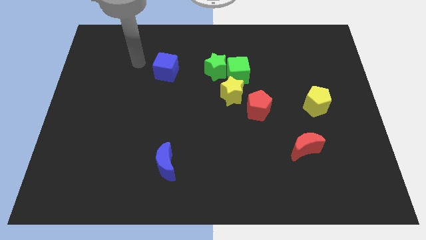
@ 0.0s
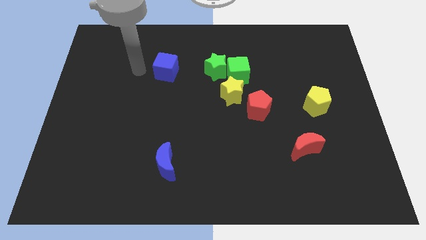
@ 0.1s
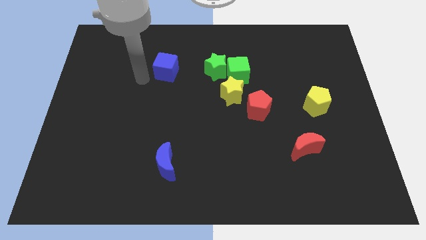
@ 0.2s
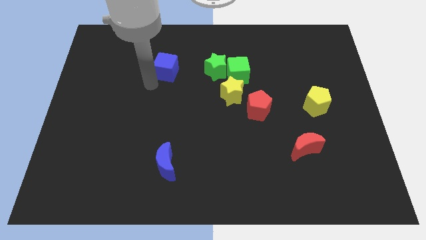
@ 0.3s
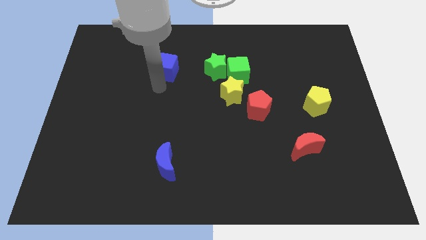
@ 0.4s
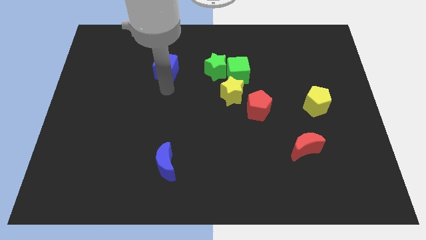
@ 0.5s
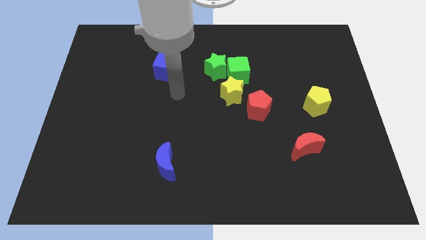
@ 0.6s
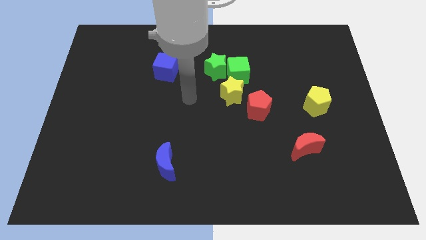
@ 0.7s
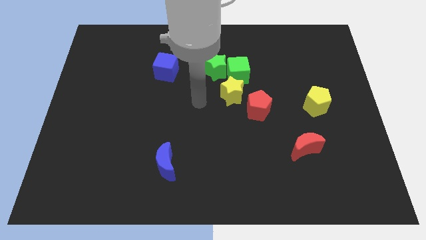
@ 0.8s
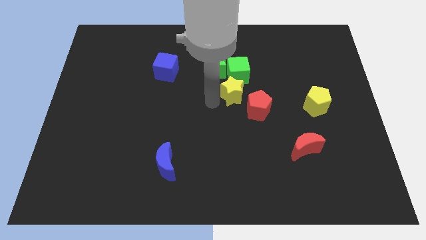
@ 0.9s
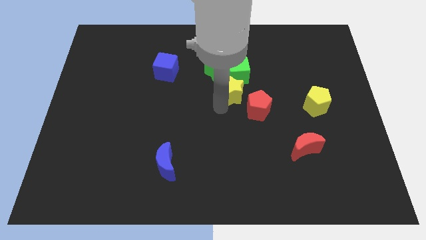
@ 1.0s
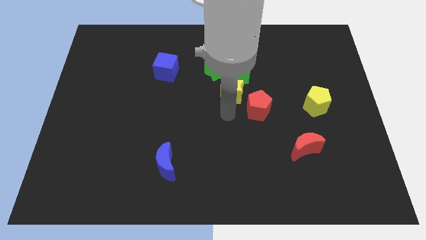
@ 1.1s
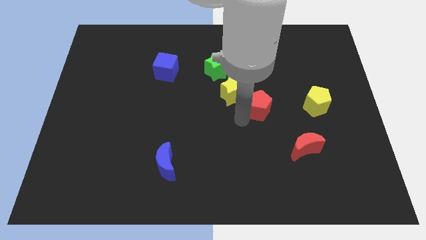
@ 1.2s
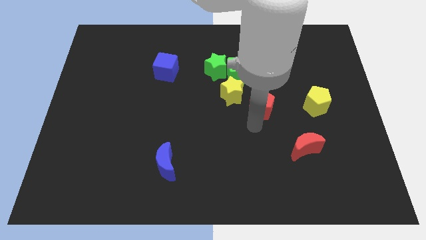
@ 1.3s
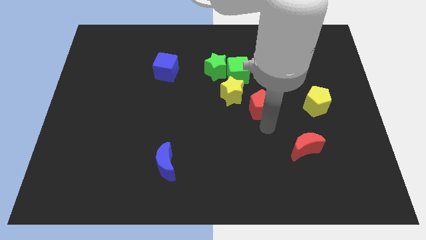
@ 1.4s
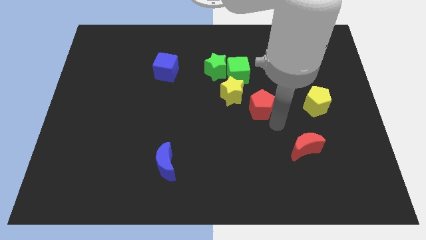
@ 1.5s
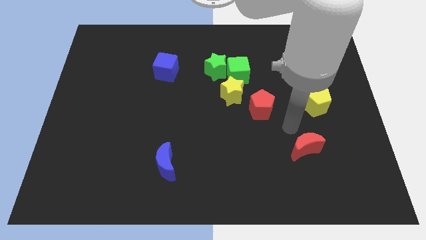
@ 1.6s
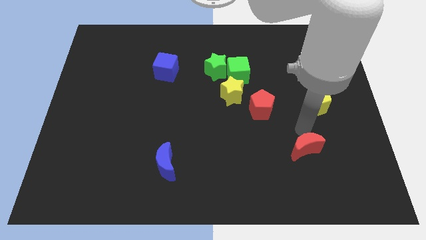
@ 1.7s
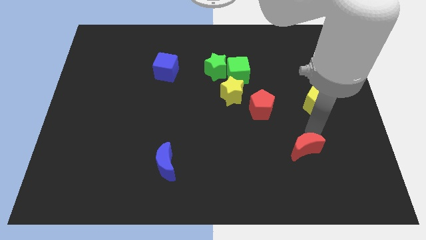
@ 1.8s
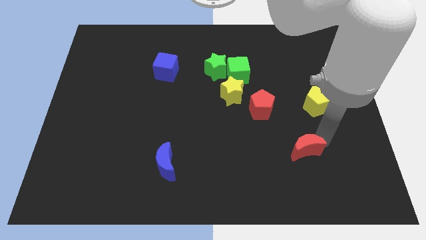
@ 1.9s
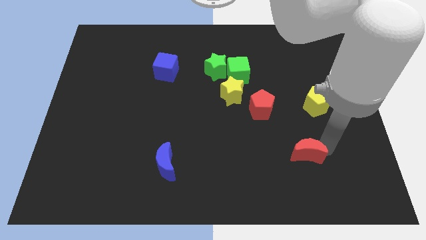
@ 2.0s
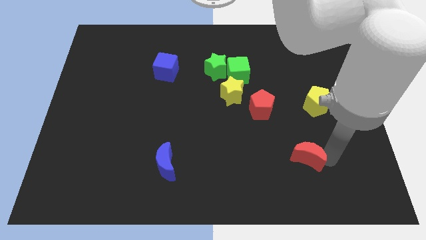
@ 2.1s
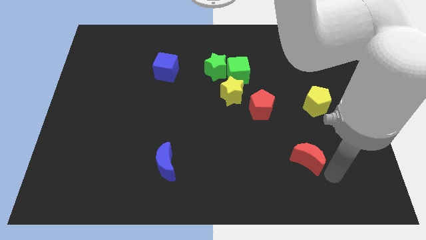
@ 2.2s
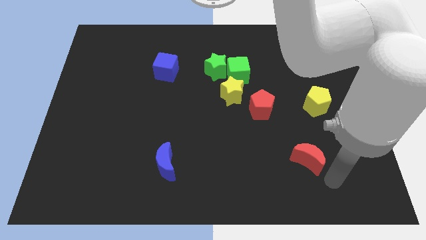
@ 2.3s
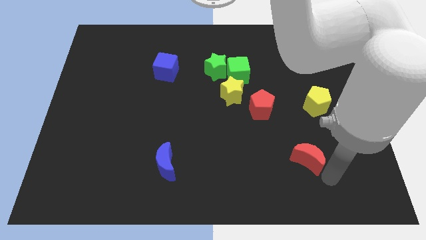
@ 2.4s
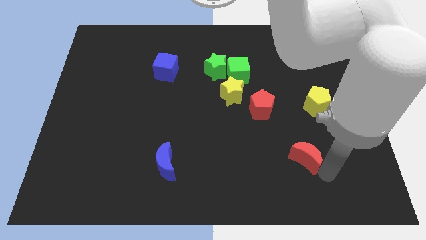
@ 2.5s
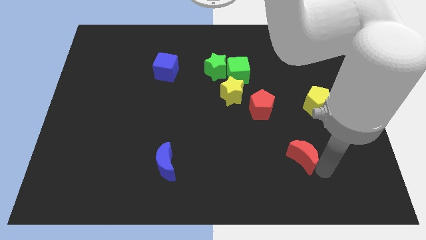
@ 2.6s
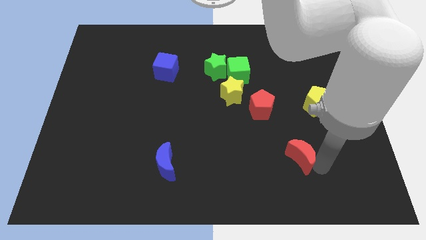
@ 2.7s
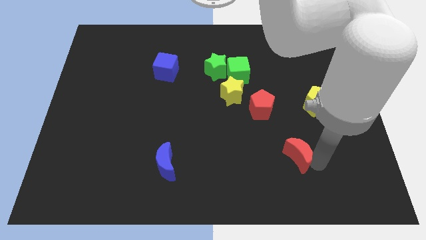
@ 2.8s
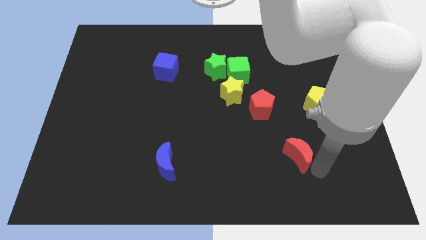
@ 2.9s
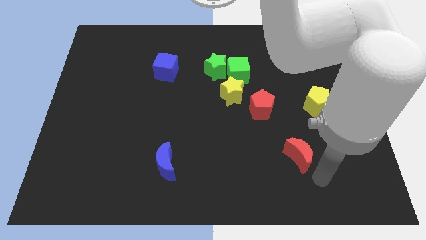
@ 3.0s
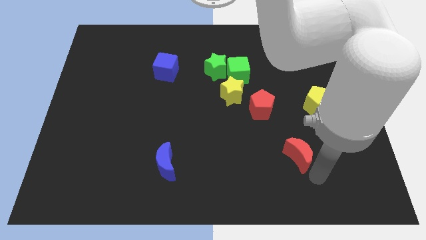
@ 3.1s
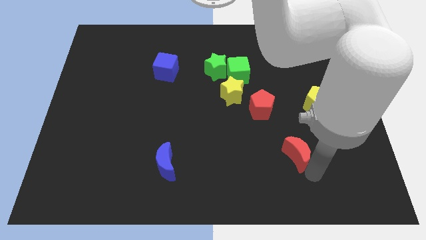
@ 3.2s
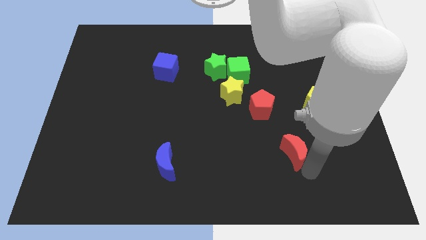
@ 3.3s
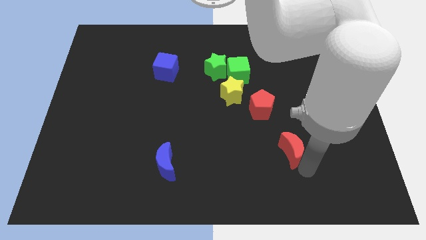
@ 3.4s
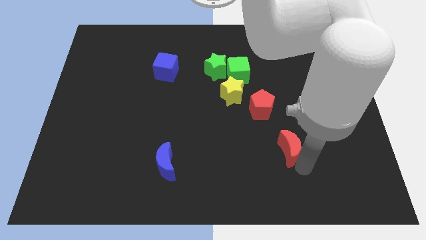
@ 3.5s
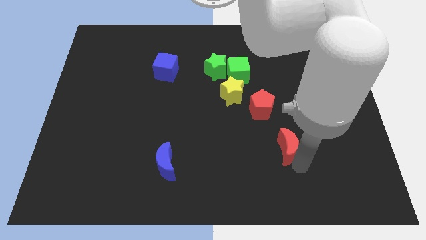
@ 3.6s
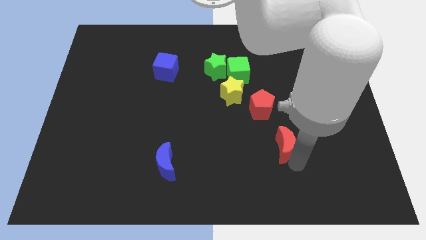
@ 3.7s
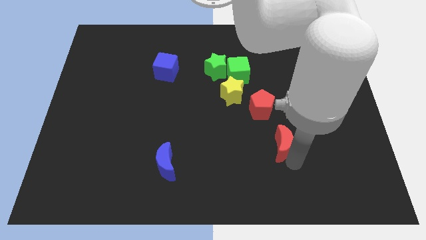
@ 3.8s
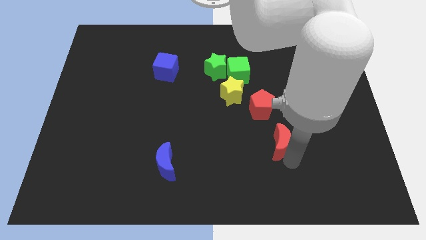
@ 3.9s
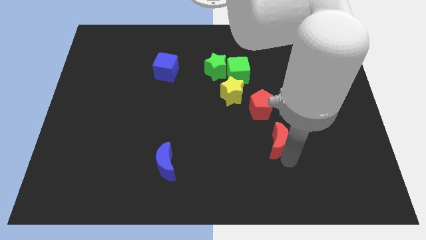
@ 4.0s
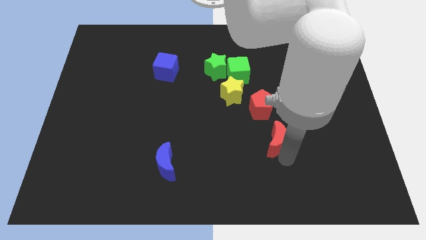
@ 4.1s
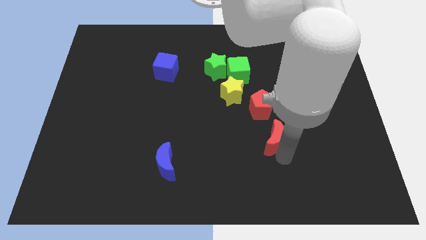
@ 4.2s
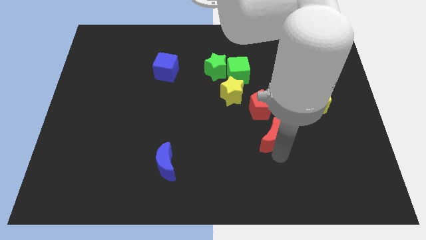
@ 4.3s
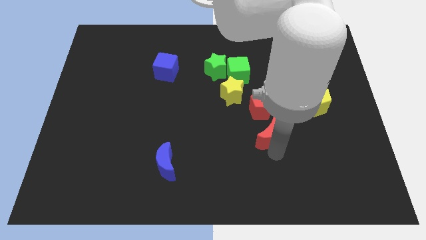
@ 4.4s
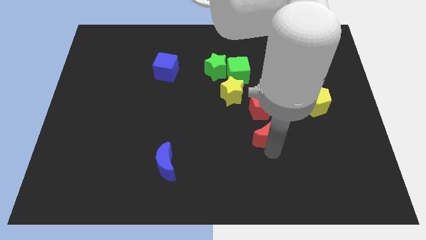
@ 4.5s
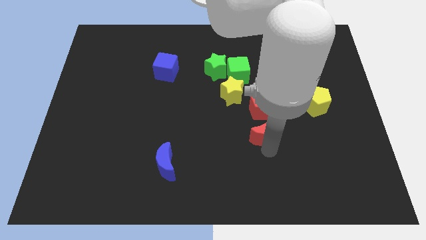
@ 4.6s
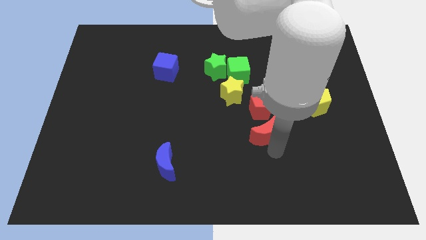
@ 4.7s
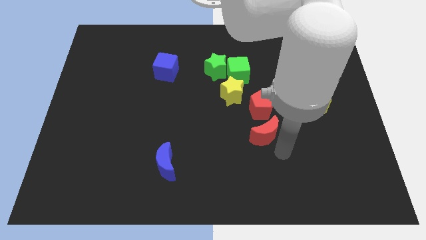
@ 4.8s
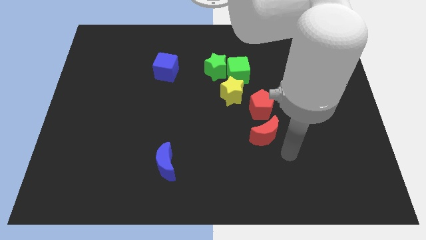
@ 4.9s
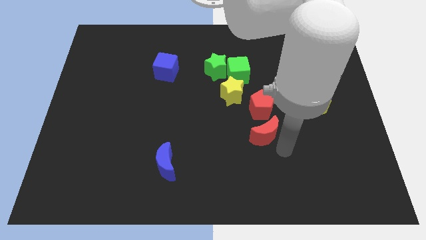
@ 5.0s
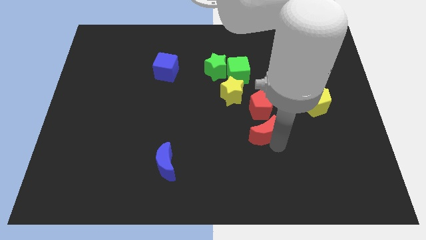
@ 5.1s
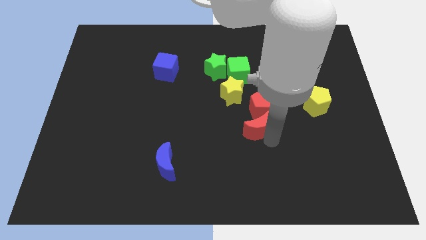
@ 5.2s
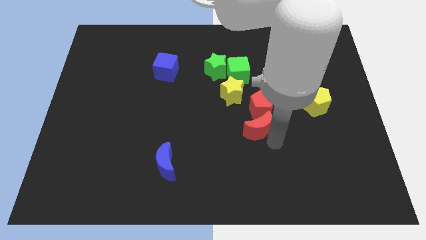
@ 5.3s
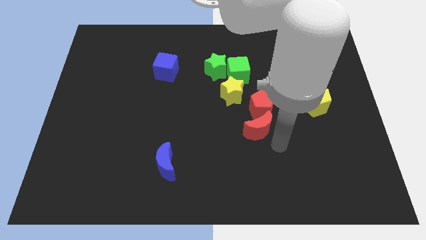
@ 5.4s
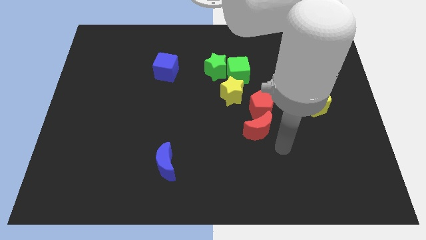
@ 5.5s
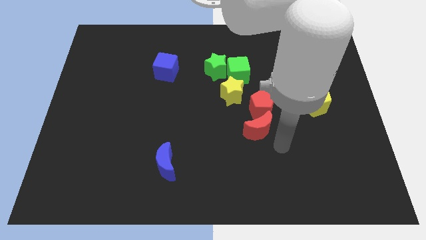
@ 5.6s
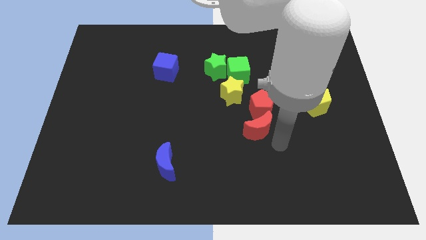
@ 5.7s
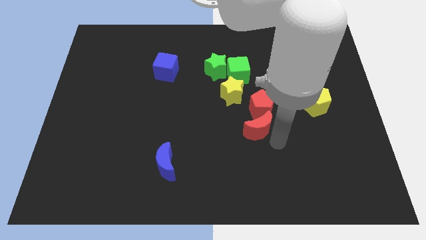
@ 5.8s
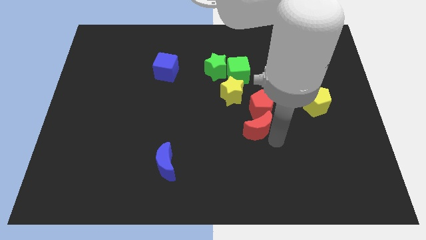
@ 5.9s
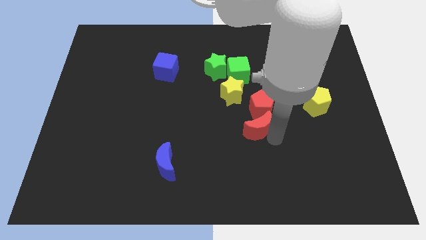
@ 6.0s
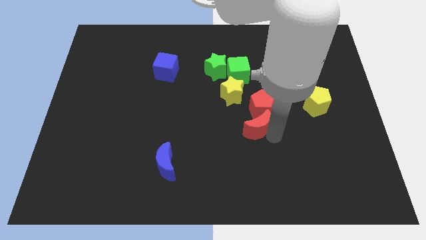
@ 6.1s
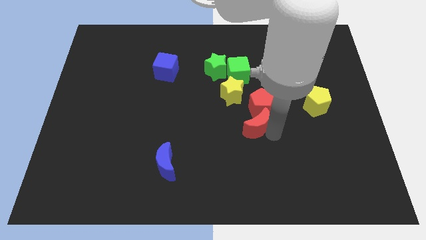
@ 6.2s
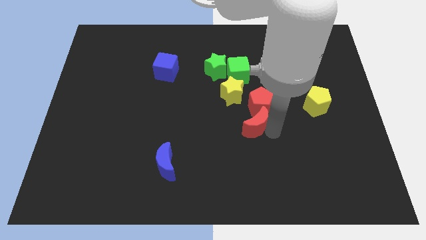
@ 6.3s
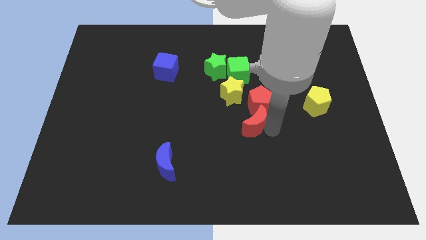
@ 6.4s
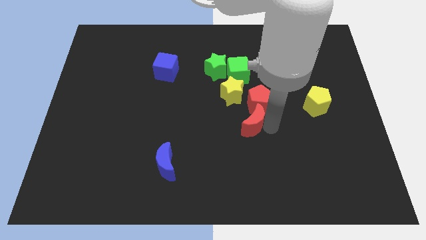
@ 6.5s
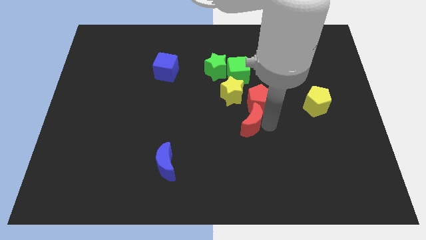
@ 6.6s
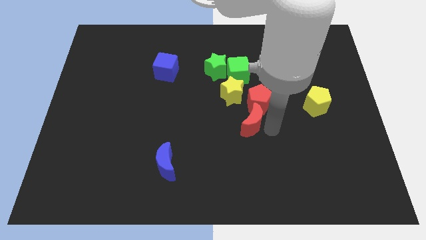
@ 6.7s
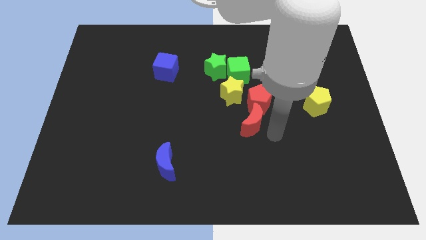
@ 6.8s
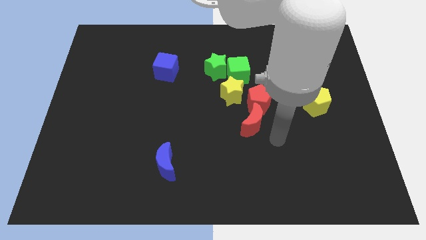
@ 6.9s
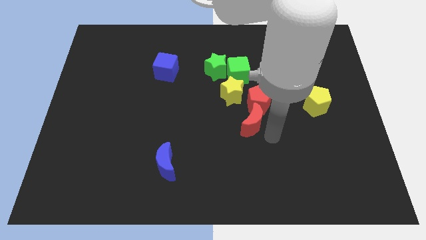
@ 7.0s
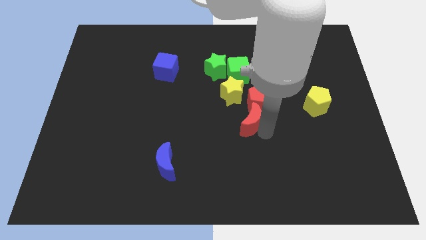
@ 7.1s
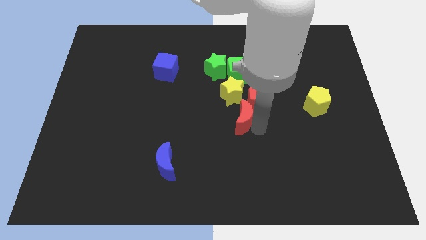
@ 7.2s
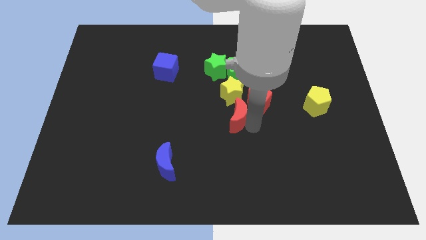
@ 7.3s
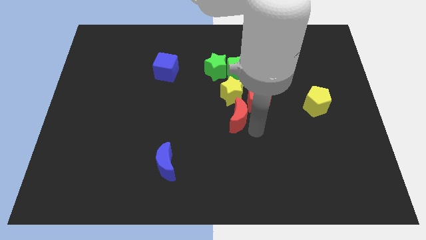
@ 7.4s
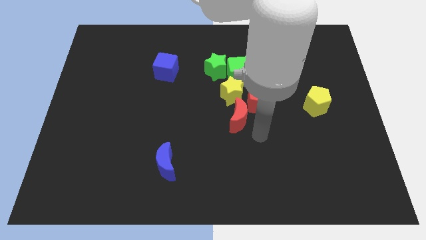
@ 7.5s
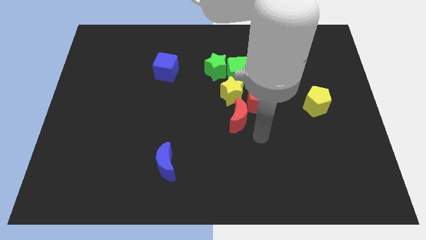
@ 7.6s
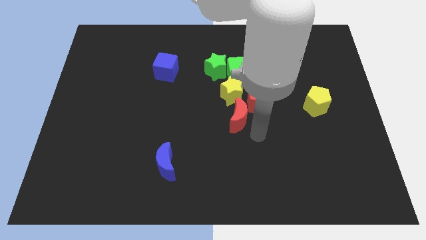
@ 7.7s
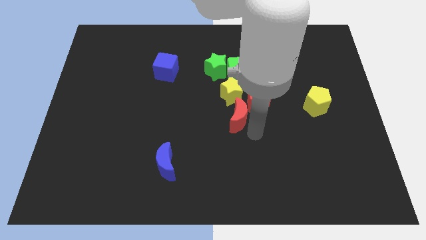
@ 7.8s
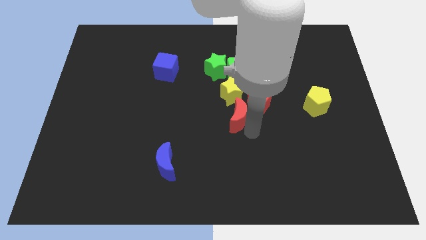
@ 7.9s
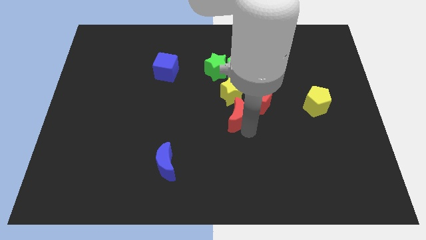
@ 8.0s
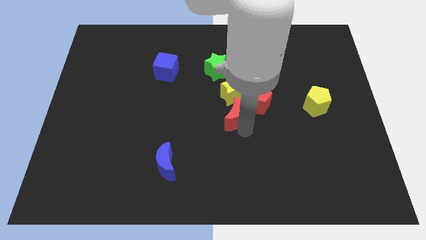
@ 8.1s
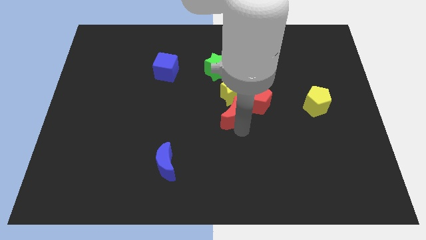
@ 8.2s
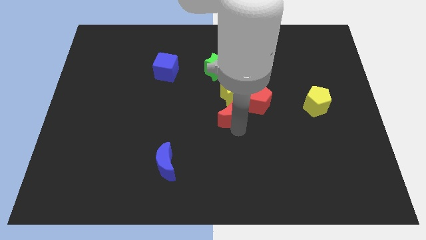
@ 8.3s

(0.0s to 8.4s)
slide the red moon to the bottom of the green star
